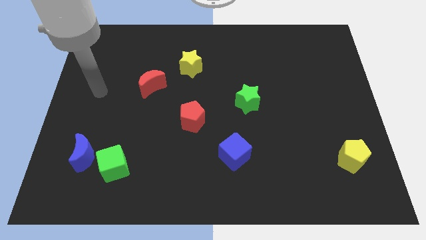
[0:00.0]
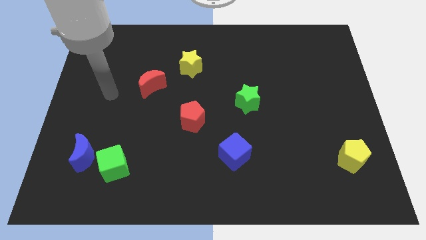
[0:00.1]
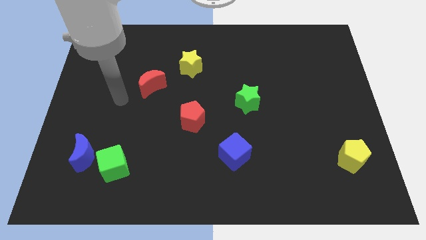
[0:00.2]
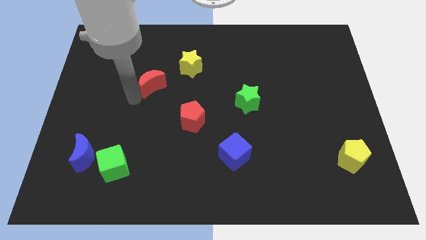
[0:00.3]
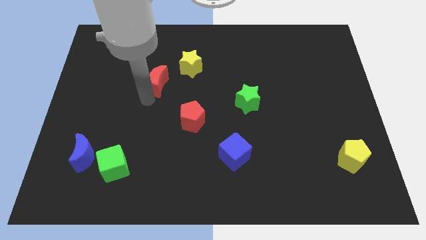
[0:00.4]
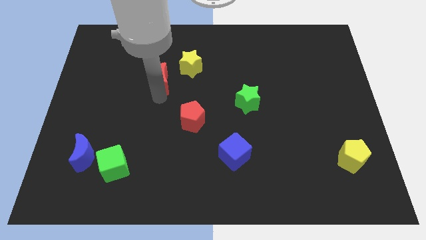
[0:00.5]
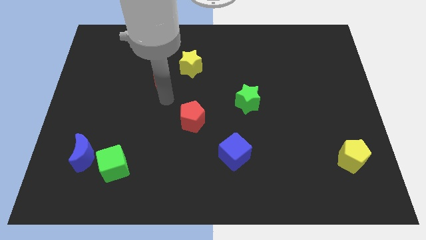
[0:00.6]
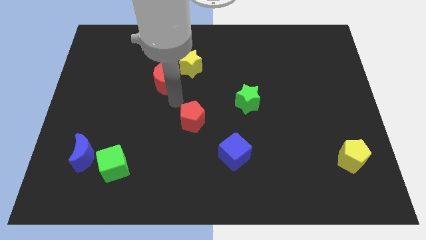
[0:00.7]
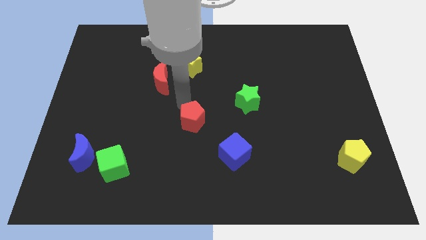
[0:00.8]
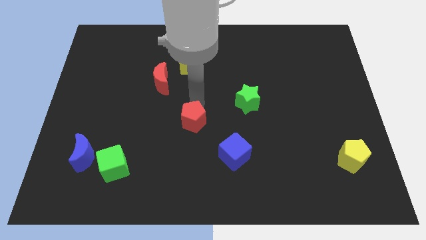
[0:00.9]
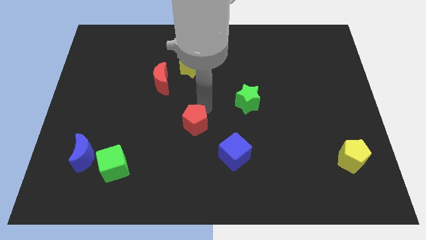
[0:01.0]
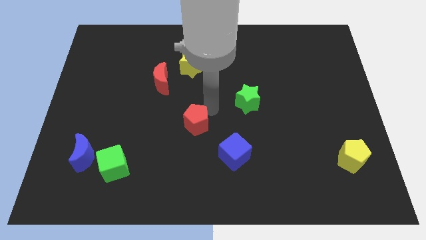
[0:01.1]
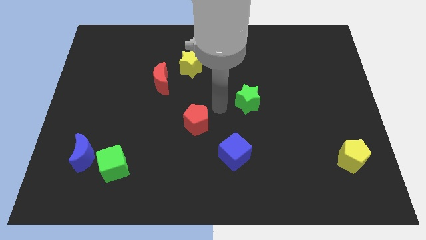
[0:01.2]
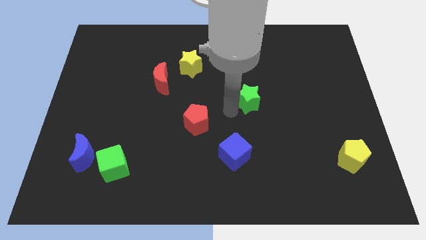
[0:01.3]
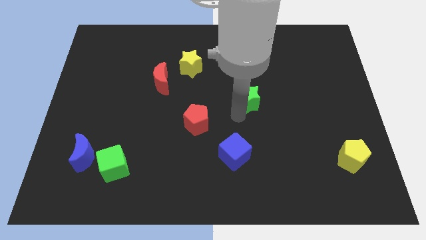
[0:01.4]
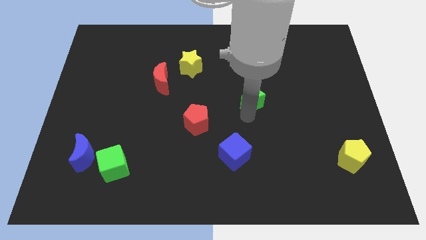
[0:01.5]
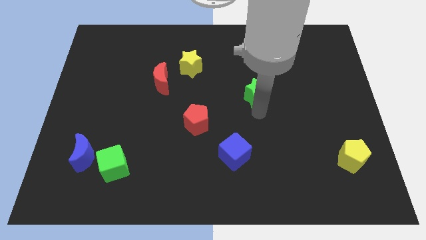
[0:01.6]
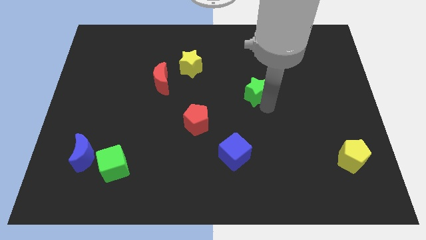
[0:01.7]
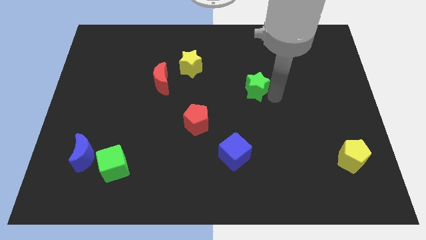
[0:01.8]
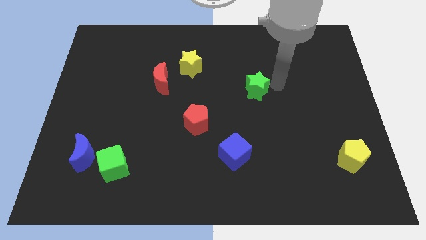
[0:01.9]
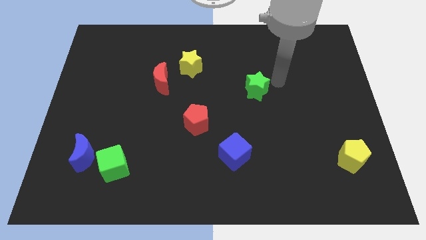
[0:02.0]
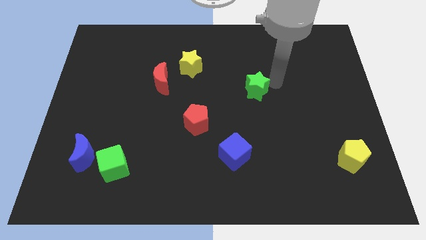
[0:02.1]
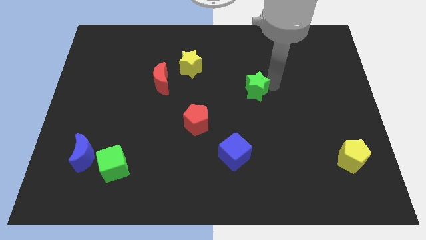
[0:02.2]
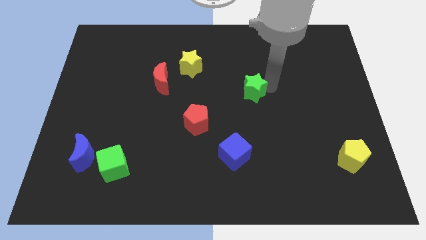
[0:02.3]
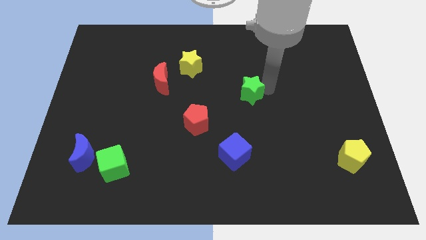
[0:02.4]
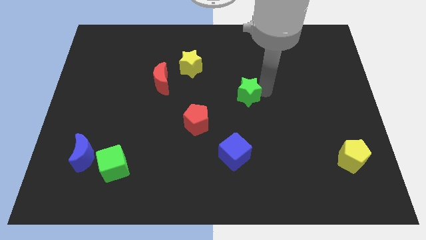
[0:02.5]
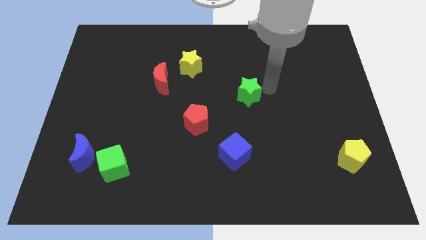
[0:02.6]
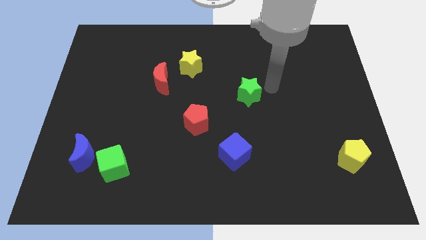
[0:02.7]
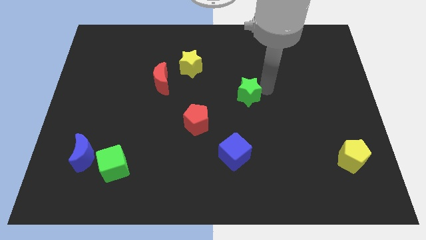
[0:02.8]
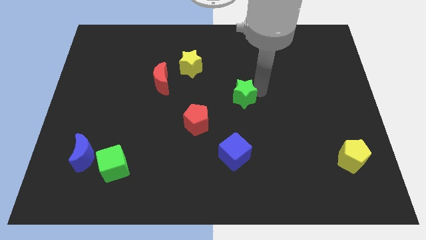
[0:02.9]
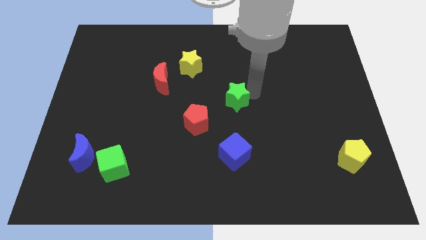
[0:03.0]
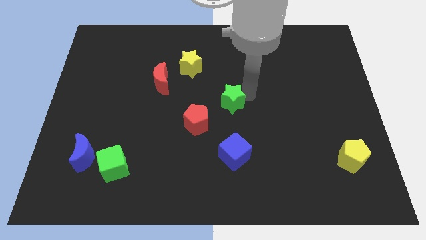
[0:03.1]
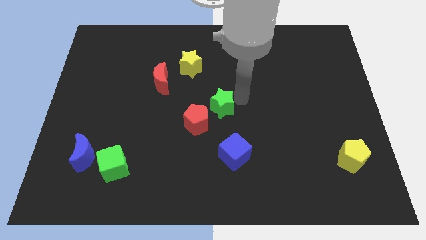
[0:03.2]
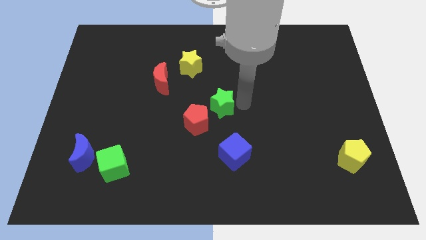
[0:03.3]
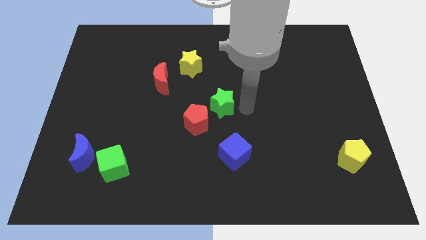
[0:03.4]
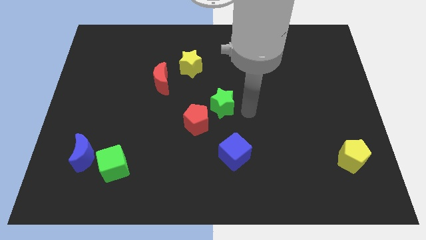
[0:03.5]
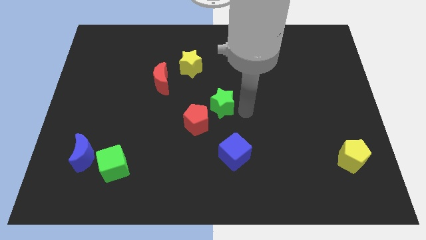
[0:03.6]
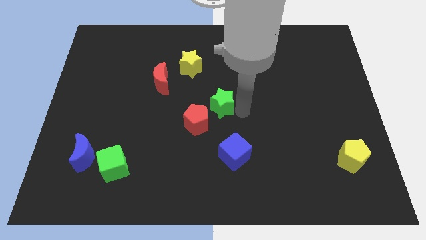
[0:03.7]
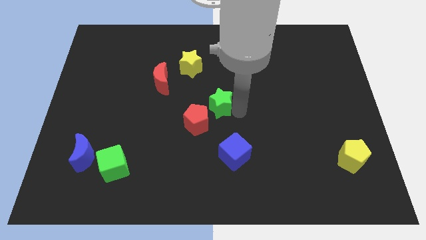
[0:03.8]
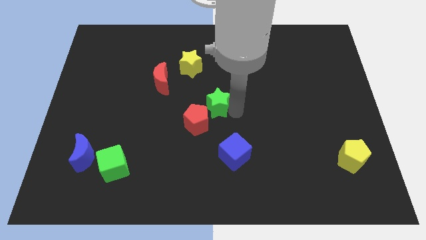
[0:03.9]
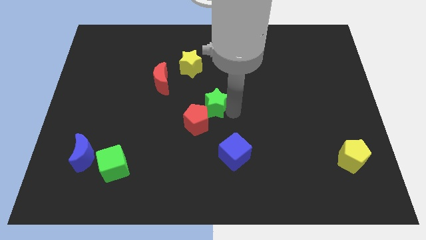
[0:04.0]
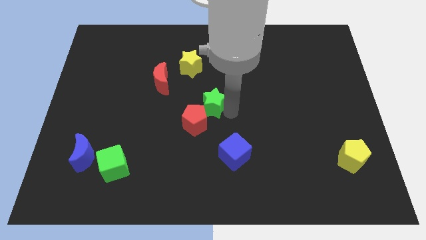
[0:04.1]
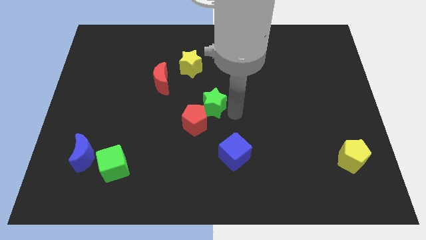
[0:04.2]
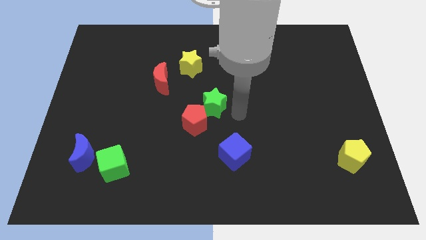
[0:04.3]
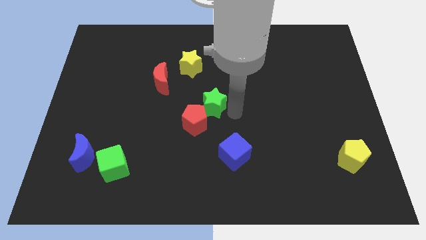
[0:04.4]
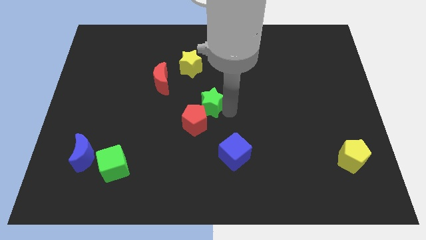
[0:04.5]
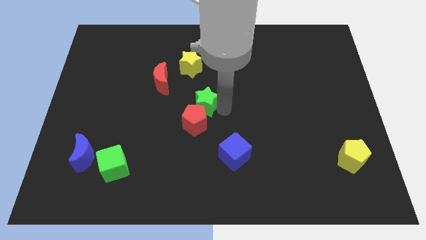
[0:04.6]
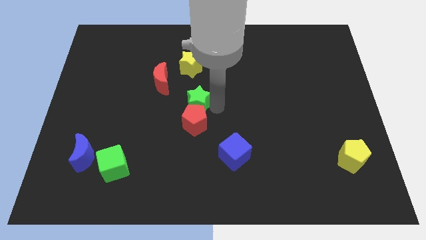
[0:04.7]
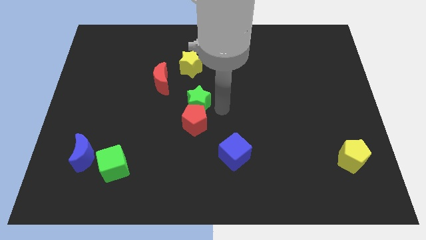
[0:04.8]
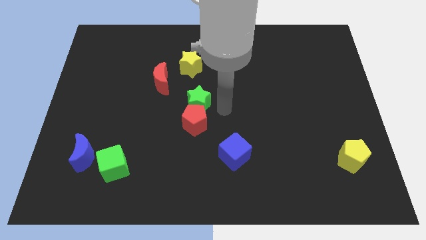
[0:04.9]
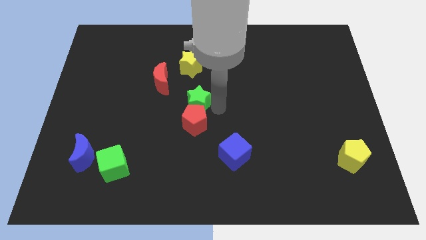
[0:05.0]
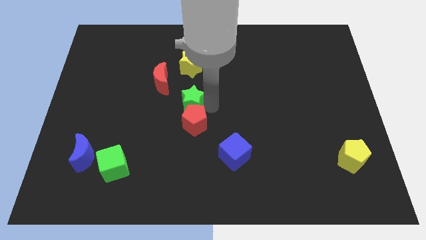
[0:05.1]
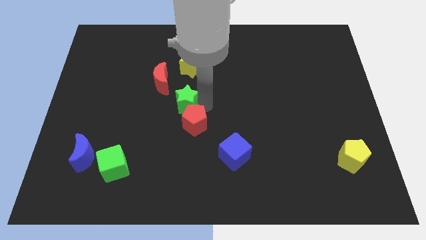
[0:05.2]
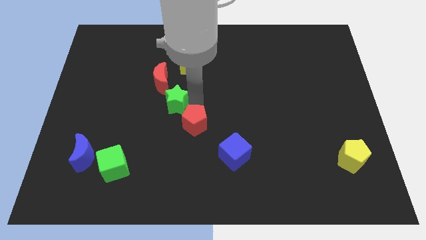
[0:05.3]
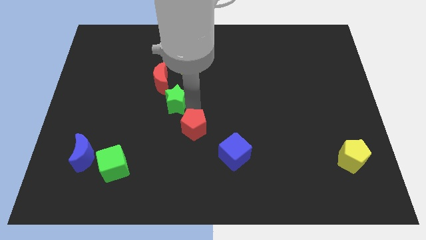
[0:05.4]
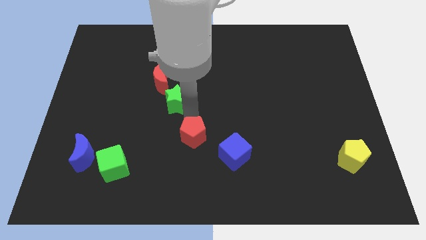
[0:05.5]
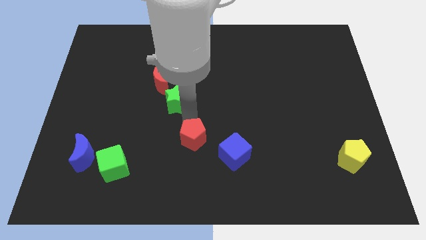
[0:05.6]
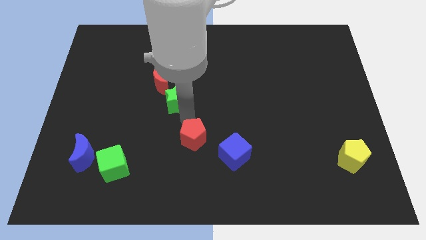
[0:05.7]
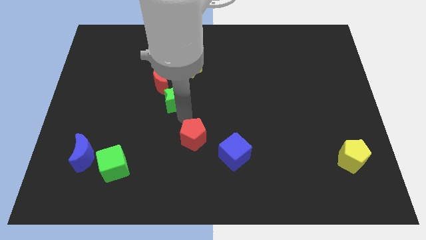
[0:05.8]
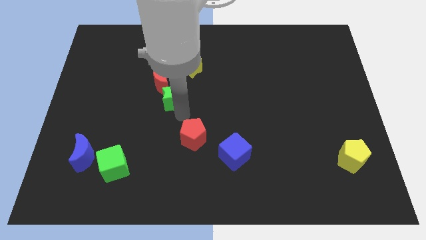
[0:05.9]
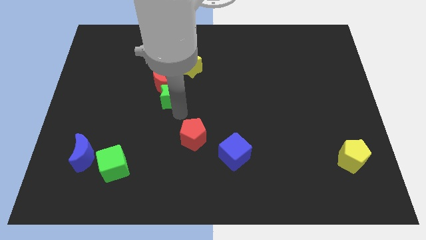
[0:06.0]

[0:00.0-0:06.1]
move the green star next to the red moon
